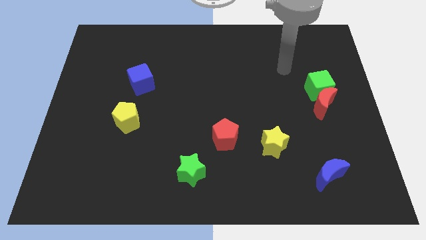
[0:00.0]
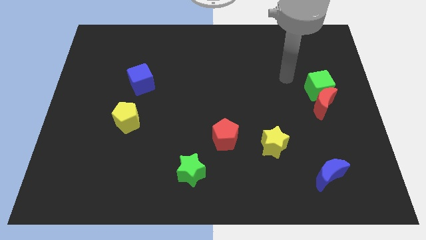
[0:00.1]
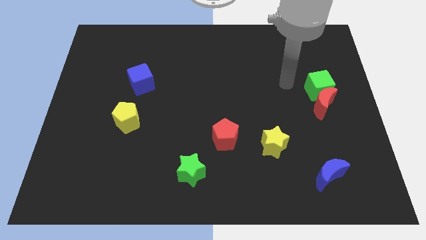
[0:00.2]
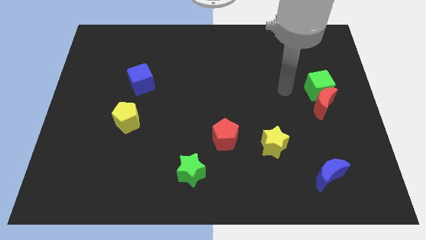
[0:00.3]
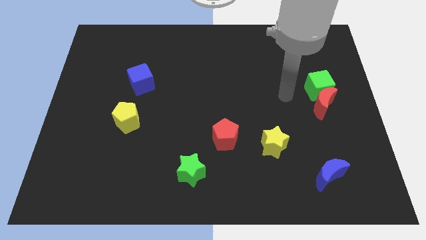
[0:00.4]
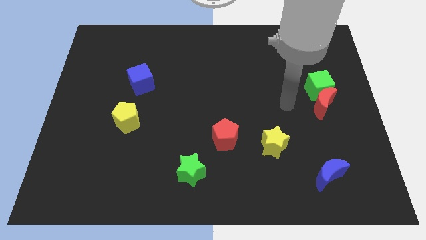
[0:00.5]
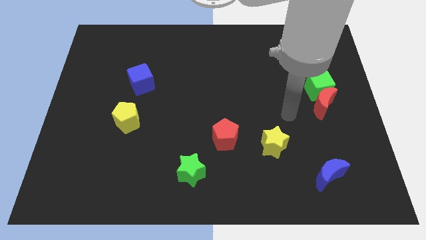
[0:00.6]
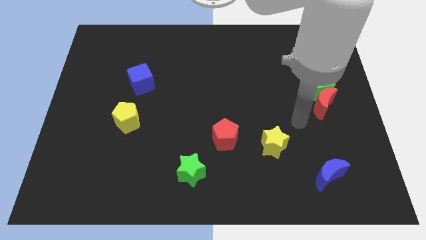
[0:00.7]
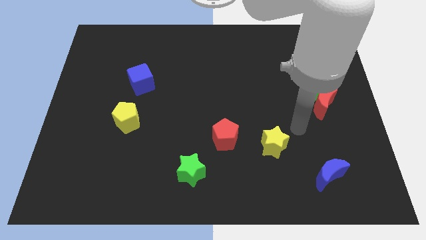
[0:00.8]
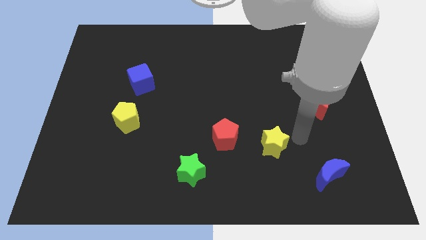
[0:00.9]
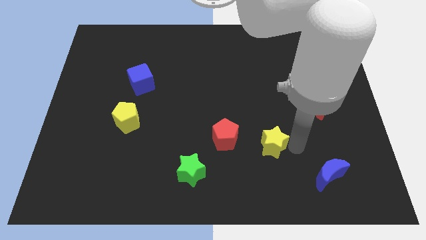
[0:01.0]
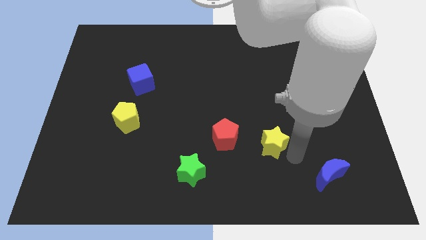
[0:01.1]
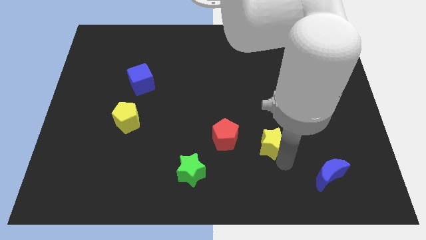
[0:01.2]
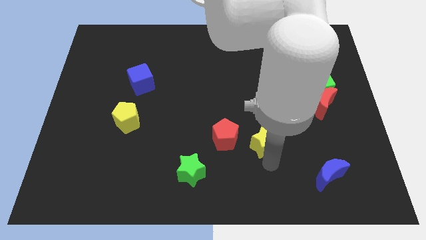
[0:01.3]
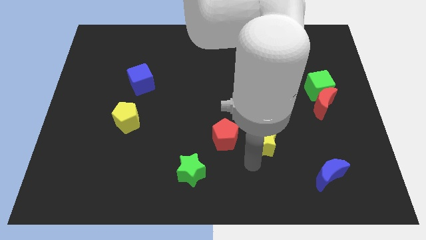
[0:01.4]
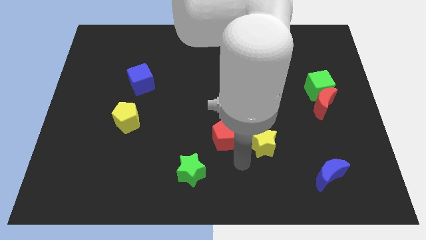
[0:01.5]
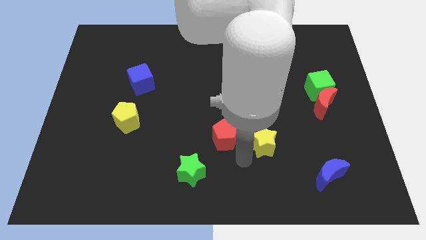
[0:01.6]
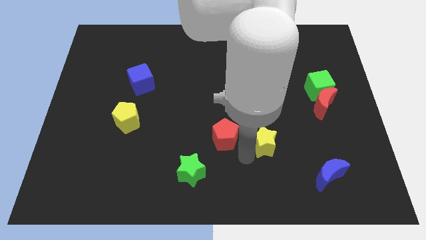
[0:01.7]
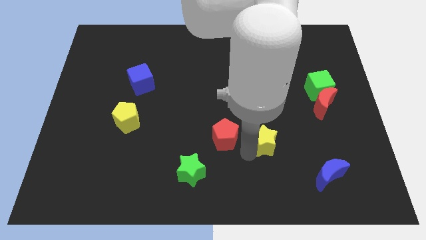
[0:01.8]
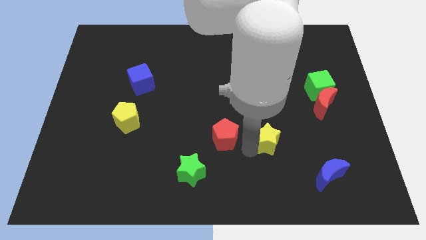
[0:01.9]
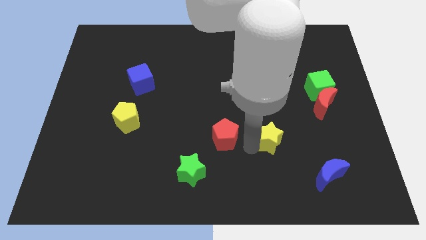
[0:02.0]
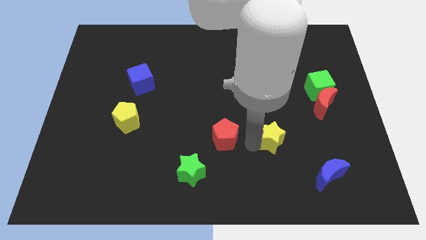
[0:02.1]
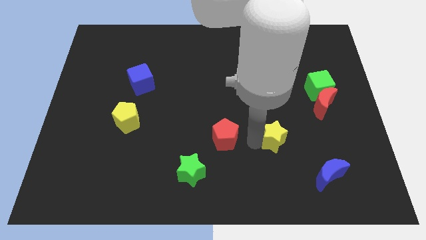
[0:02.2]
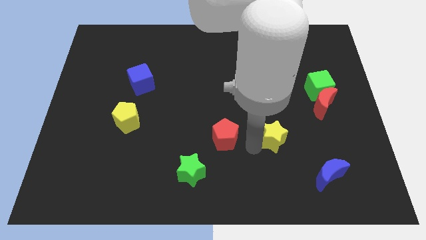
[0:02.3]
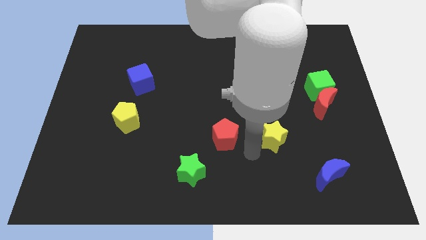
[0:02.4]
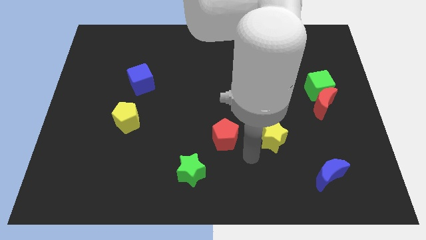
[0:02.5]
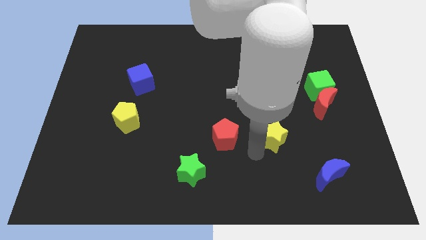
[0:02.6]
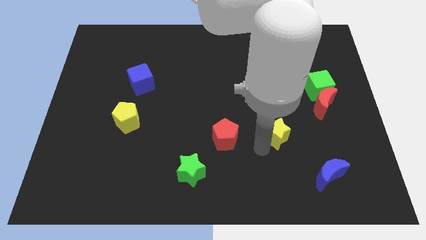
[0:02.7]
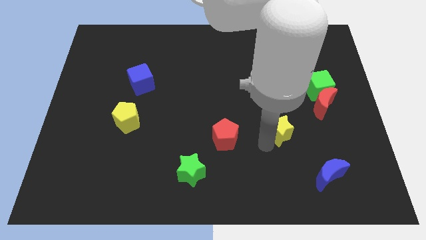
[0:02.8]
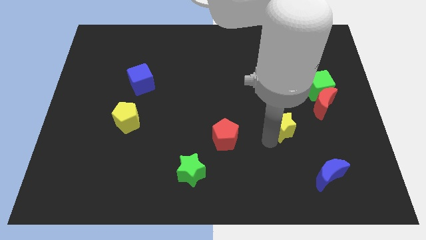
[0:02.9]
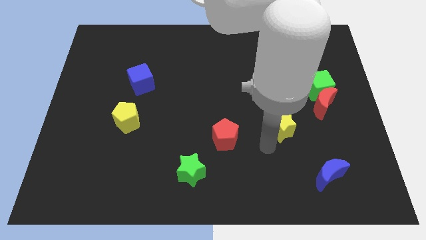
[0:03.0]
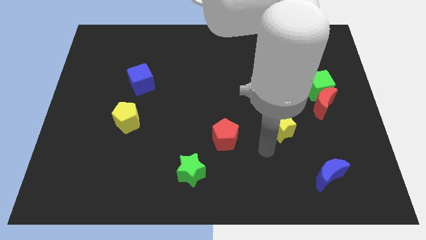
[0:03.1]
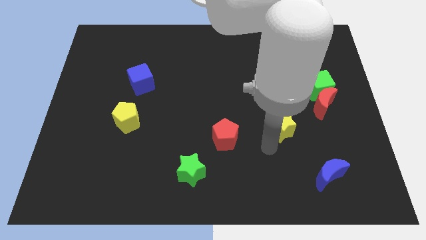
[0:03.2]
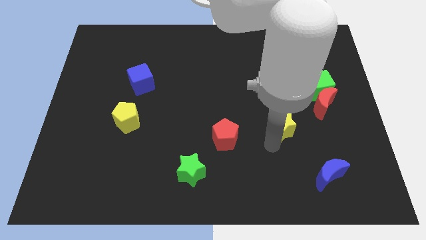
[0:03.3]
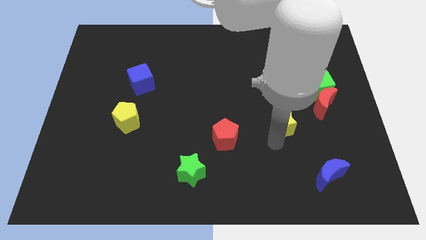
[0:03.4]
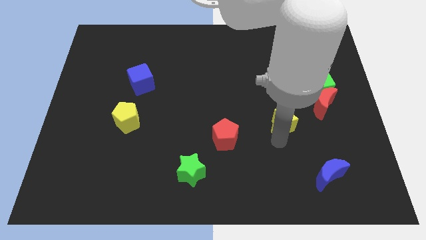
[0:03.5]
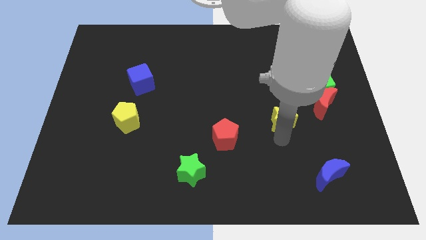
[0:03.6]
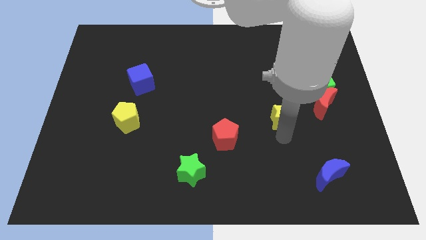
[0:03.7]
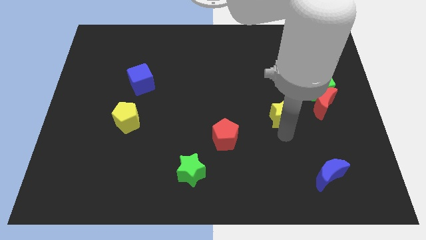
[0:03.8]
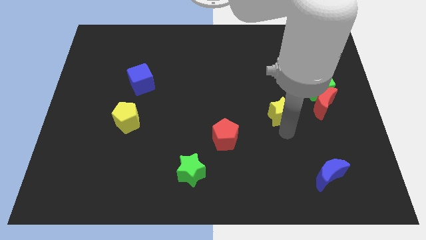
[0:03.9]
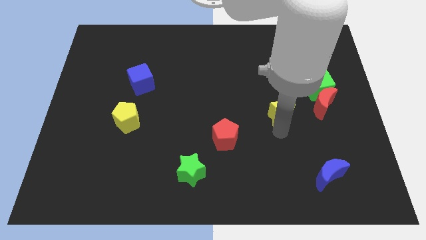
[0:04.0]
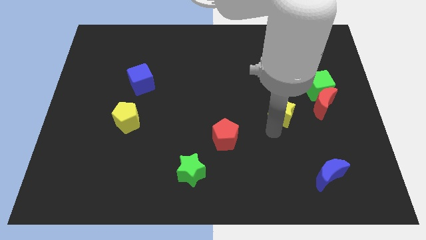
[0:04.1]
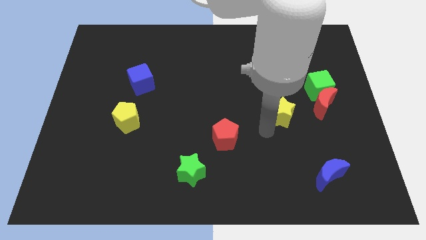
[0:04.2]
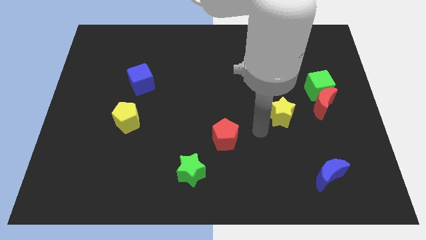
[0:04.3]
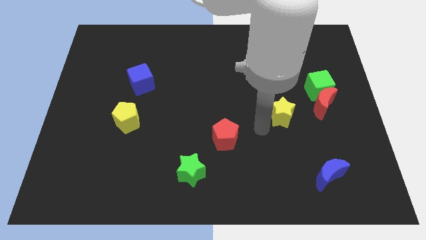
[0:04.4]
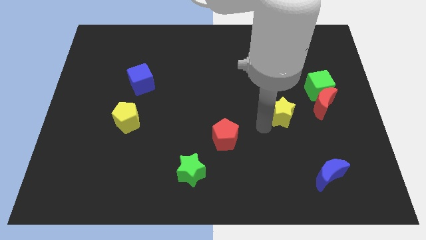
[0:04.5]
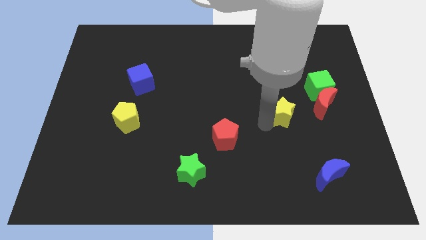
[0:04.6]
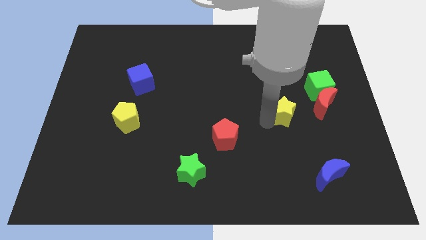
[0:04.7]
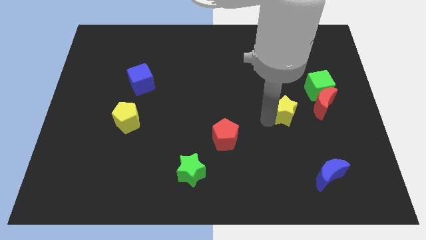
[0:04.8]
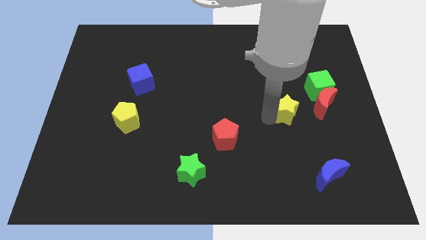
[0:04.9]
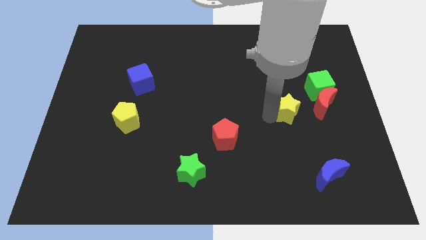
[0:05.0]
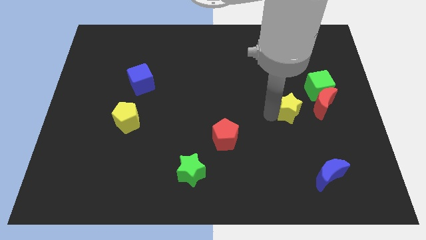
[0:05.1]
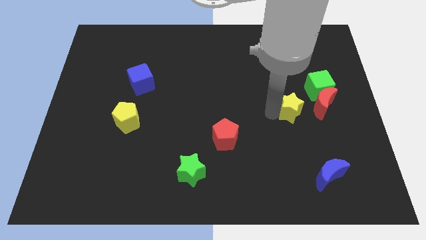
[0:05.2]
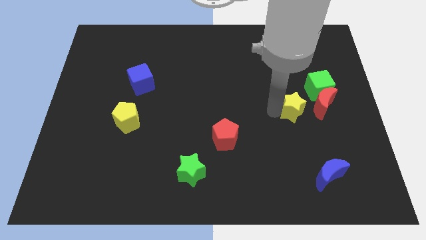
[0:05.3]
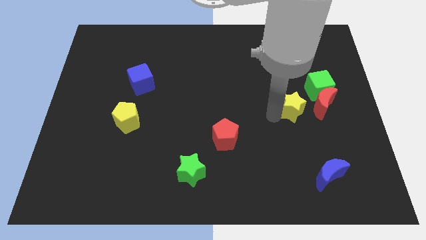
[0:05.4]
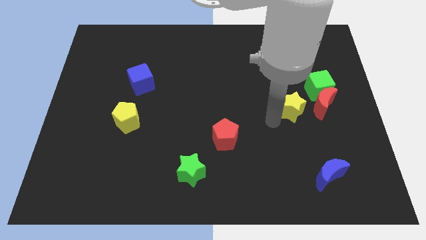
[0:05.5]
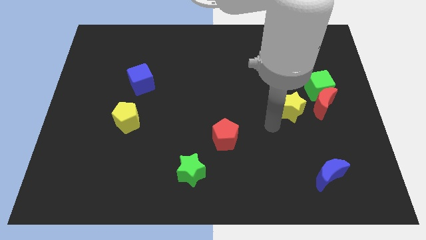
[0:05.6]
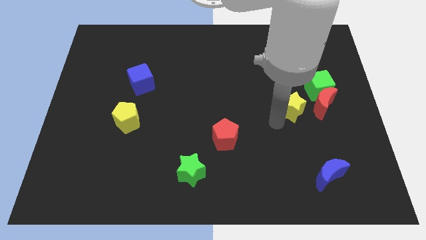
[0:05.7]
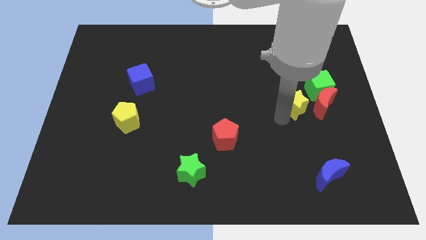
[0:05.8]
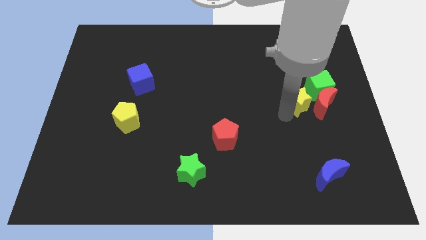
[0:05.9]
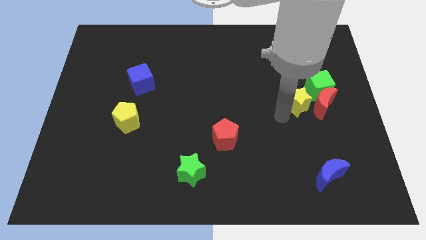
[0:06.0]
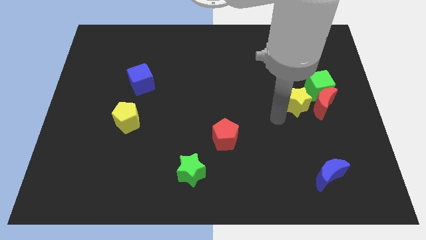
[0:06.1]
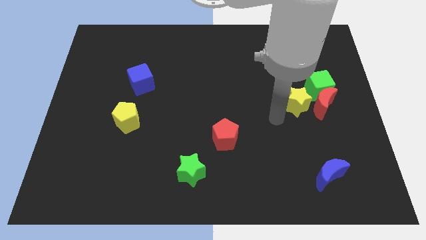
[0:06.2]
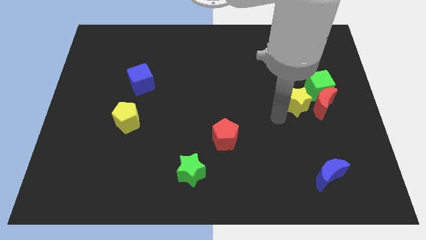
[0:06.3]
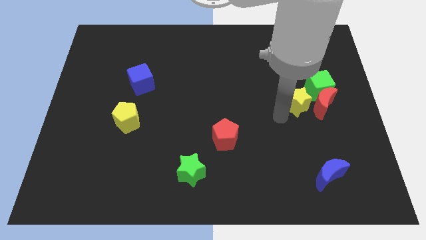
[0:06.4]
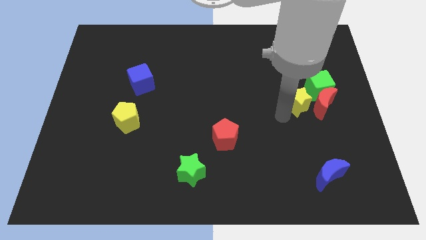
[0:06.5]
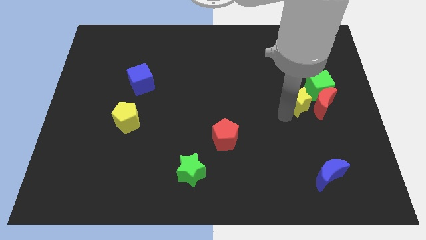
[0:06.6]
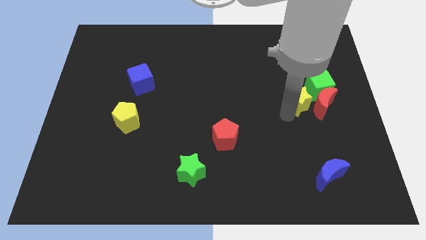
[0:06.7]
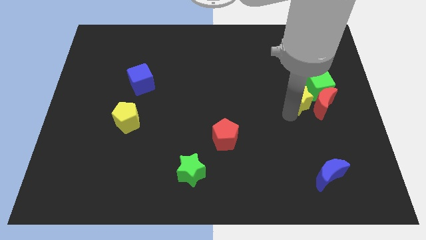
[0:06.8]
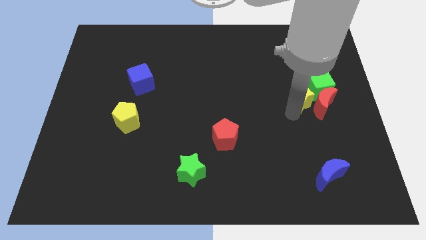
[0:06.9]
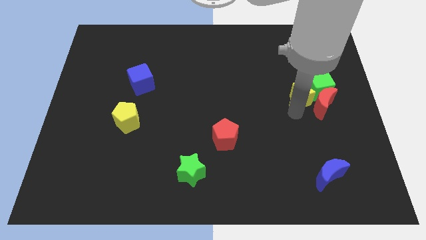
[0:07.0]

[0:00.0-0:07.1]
slide the yellow star towards the green cube
